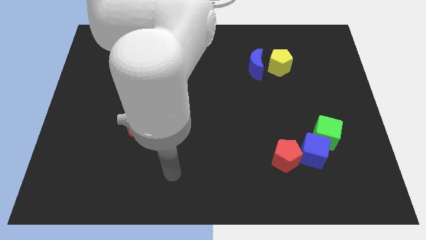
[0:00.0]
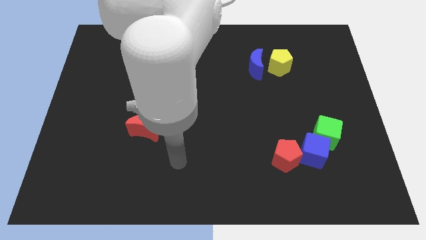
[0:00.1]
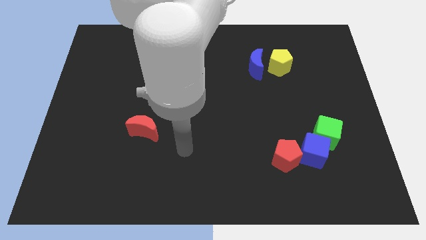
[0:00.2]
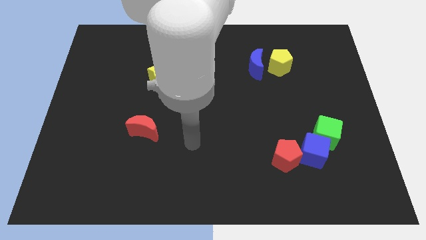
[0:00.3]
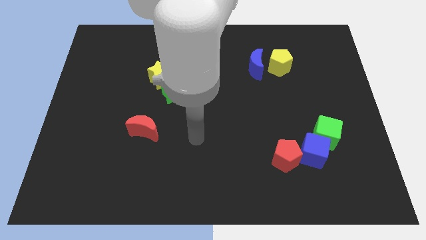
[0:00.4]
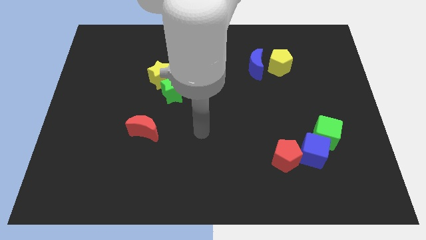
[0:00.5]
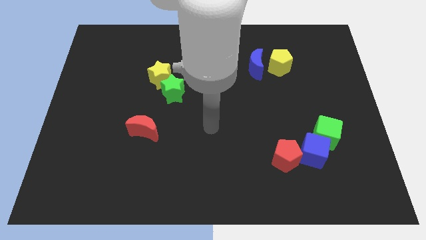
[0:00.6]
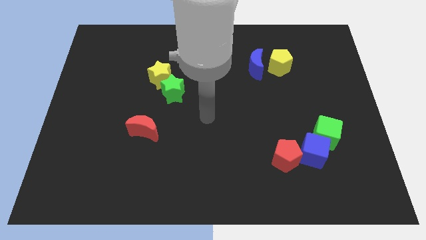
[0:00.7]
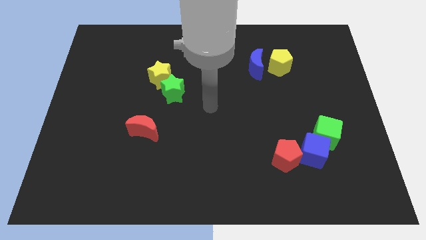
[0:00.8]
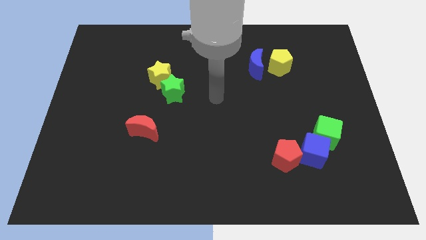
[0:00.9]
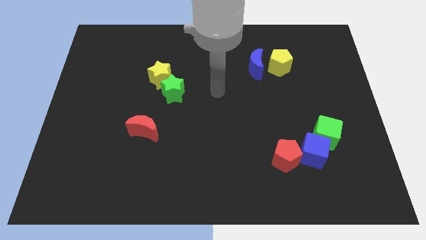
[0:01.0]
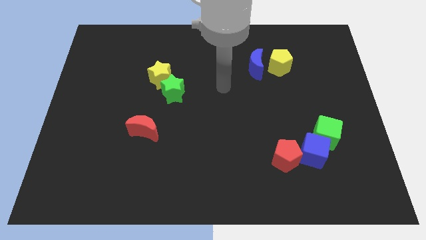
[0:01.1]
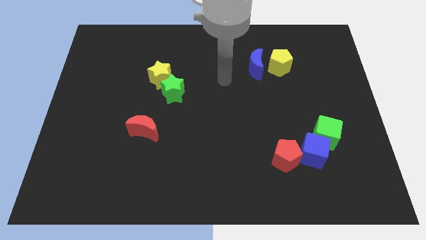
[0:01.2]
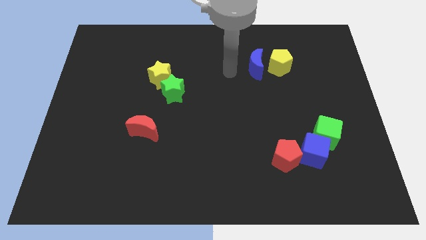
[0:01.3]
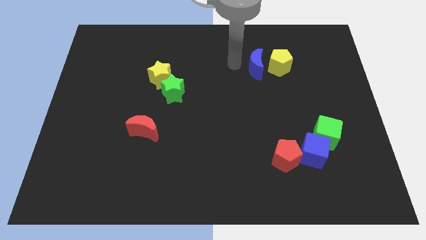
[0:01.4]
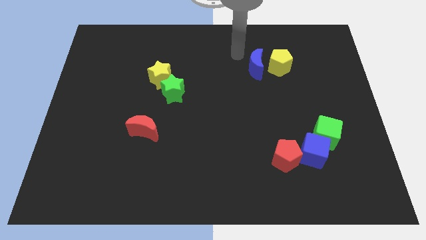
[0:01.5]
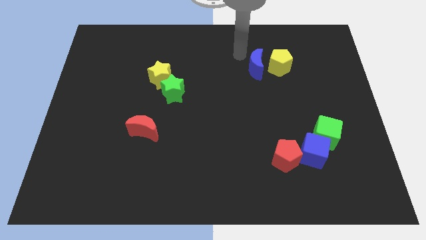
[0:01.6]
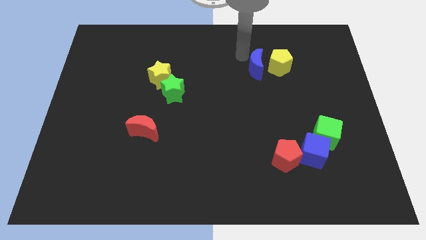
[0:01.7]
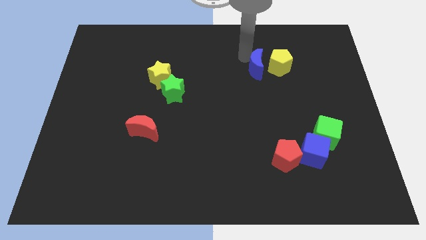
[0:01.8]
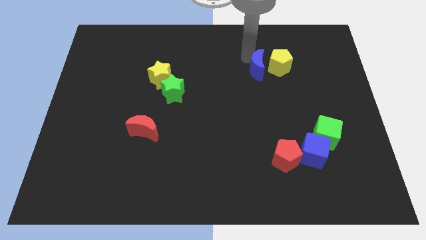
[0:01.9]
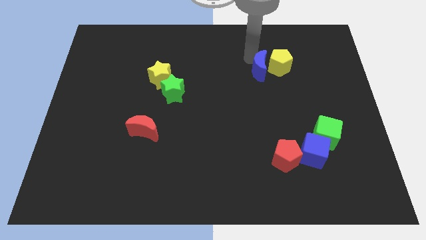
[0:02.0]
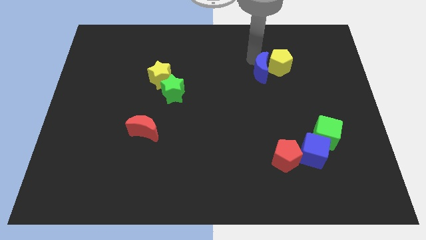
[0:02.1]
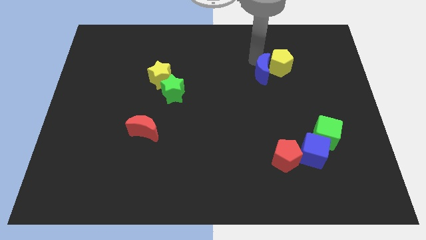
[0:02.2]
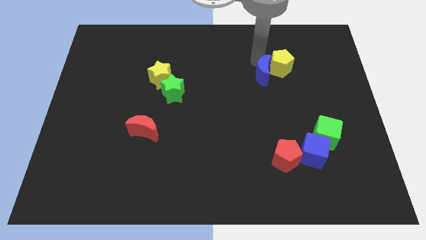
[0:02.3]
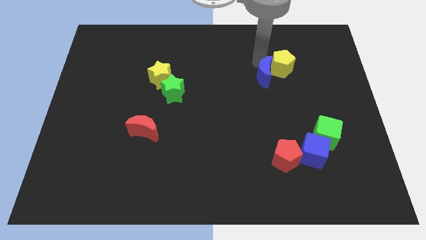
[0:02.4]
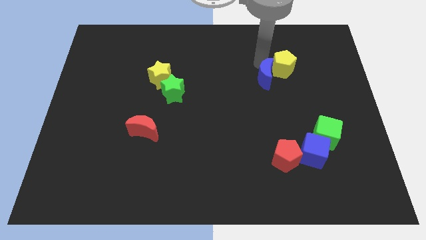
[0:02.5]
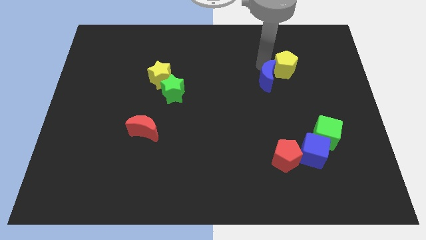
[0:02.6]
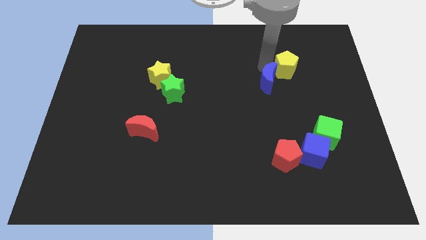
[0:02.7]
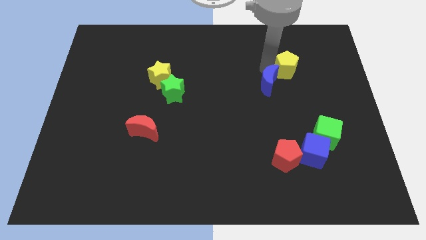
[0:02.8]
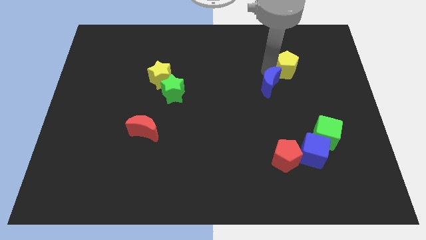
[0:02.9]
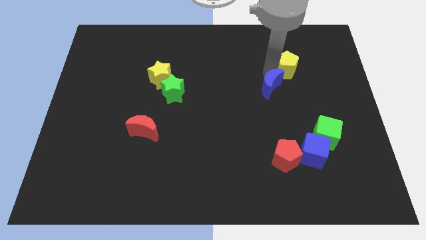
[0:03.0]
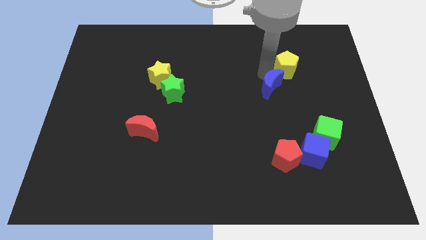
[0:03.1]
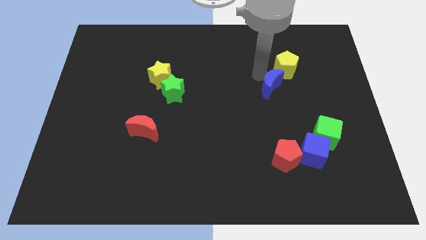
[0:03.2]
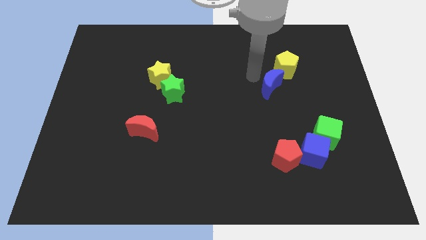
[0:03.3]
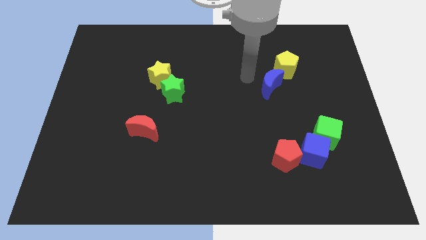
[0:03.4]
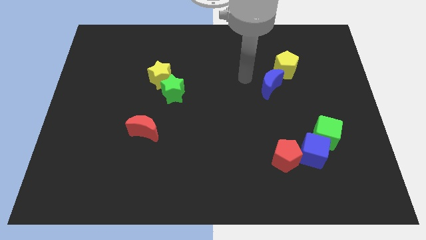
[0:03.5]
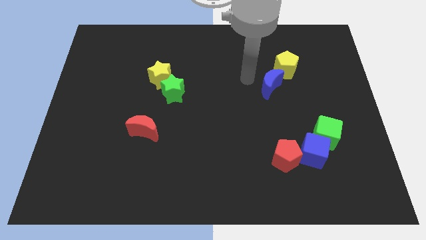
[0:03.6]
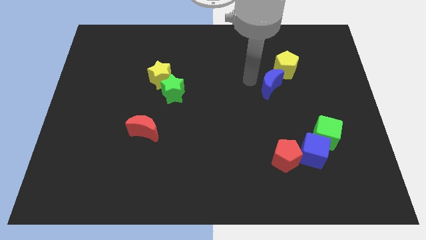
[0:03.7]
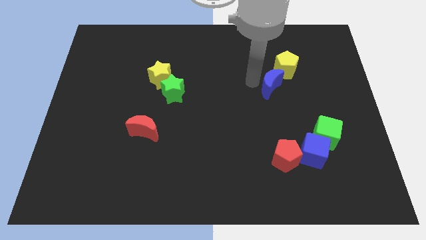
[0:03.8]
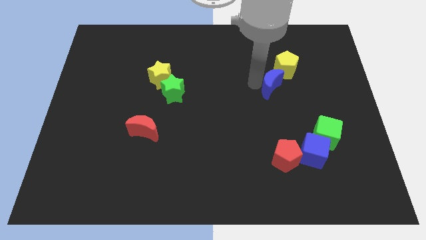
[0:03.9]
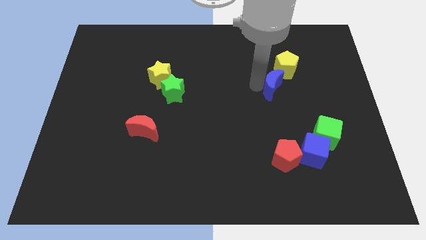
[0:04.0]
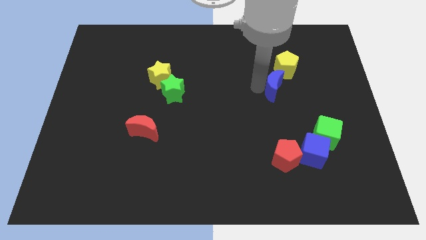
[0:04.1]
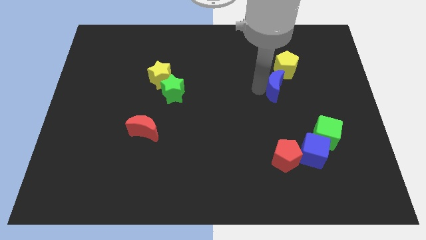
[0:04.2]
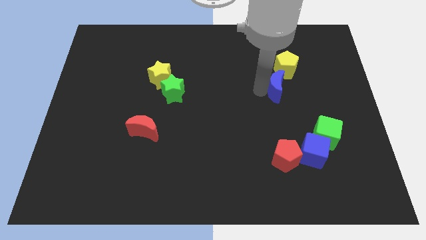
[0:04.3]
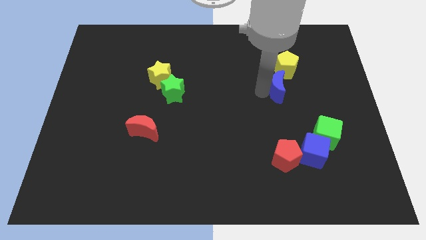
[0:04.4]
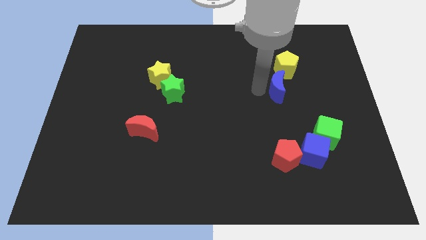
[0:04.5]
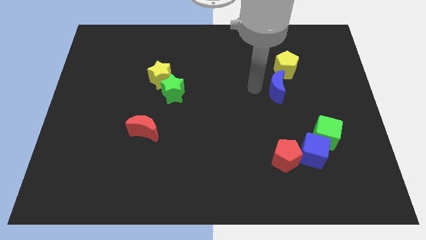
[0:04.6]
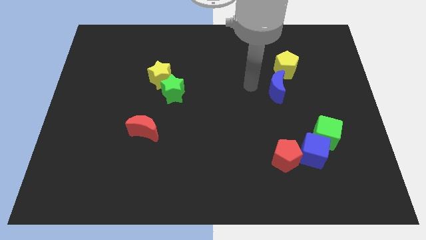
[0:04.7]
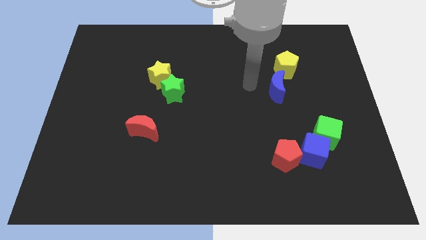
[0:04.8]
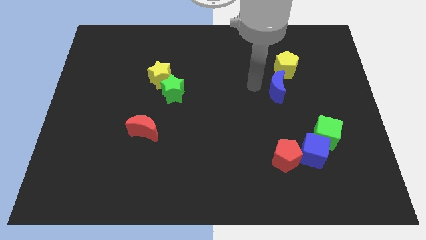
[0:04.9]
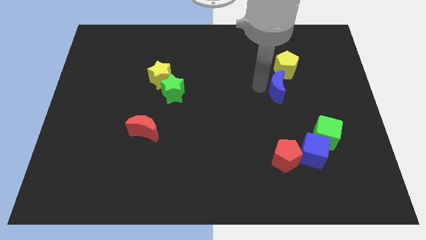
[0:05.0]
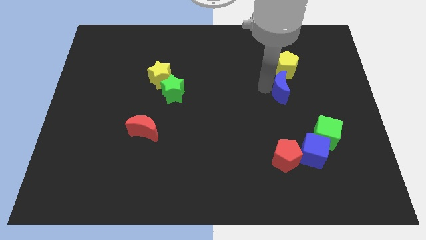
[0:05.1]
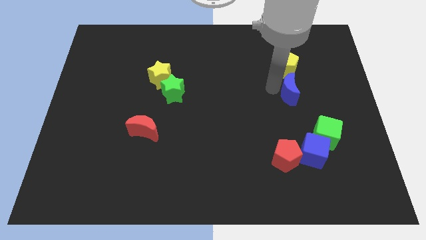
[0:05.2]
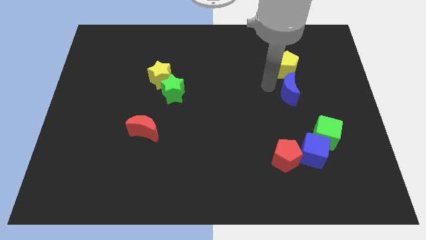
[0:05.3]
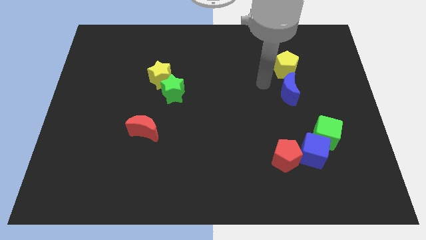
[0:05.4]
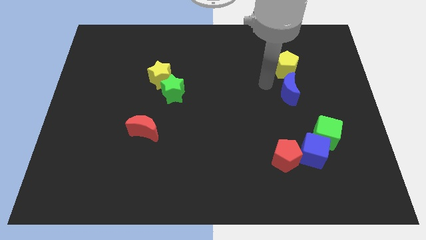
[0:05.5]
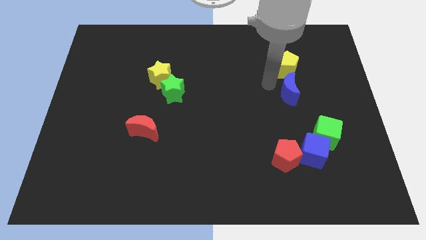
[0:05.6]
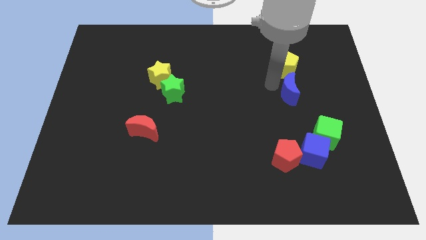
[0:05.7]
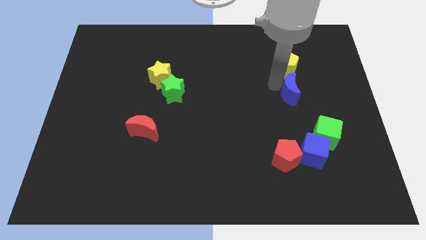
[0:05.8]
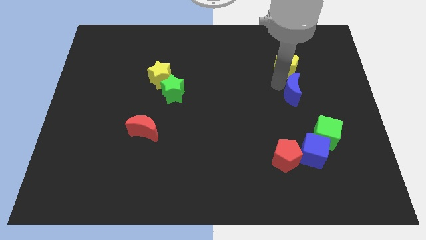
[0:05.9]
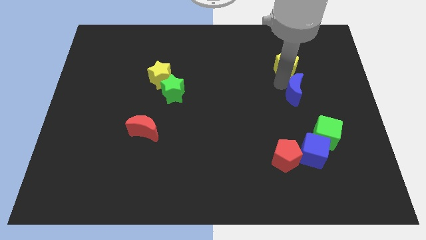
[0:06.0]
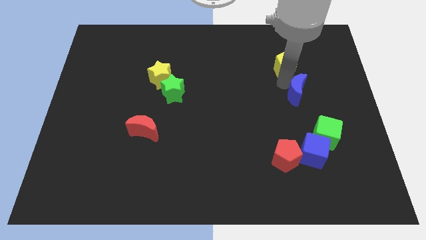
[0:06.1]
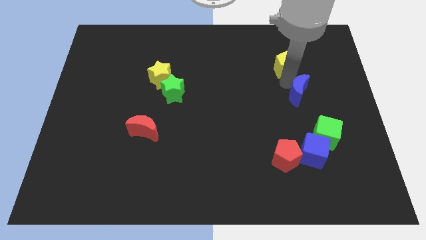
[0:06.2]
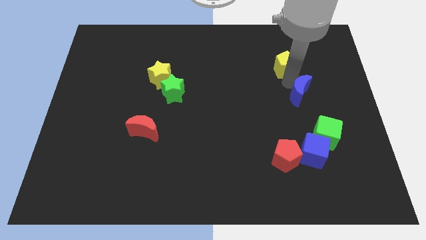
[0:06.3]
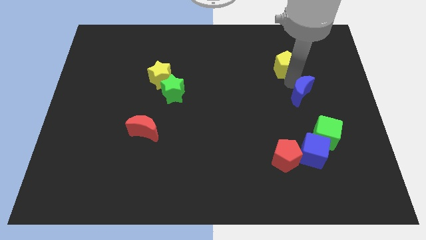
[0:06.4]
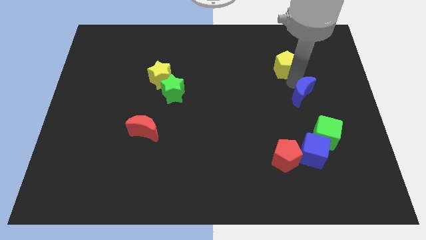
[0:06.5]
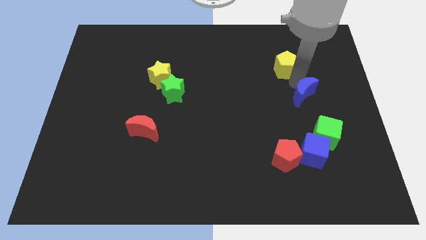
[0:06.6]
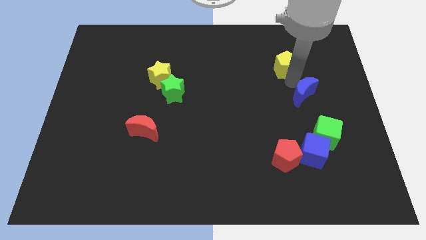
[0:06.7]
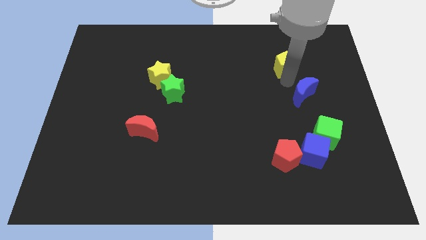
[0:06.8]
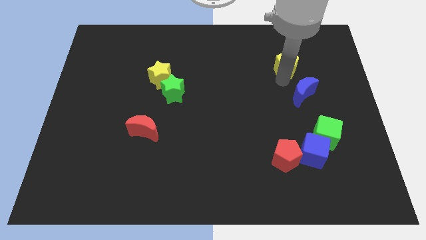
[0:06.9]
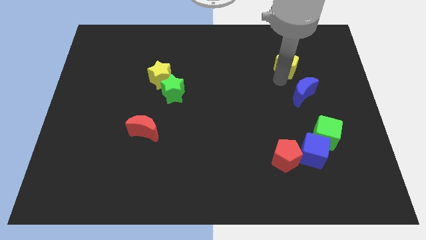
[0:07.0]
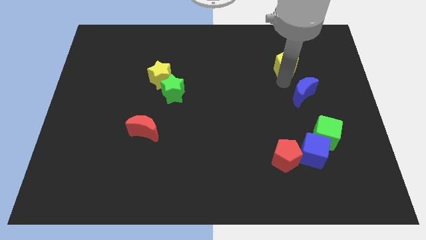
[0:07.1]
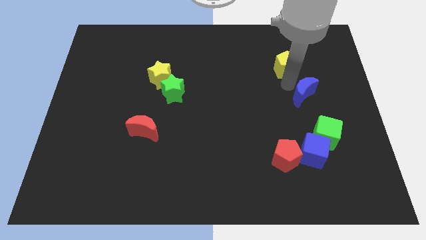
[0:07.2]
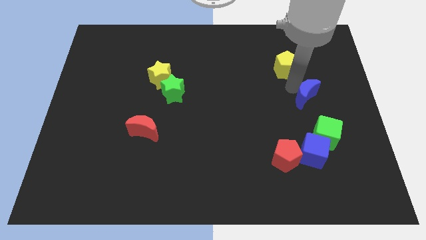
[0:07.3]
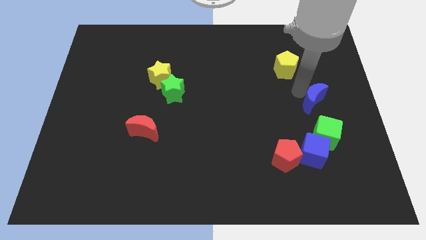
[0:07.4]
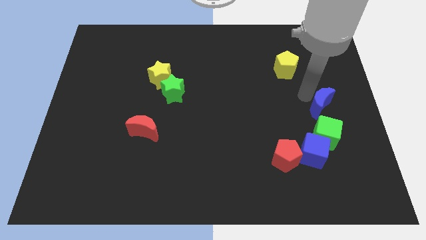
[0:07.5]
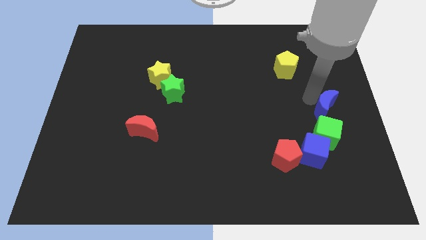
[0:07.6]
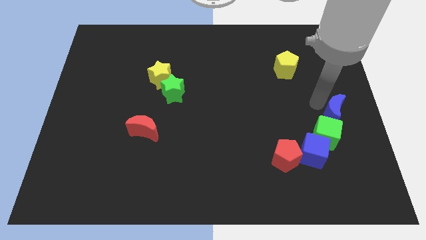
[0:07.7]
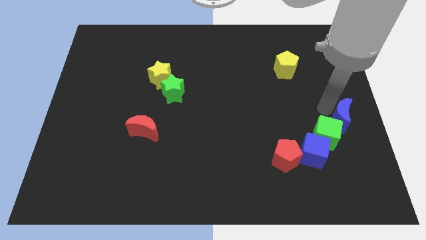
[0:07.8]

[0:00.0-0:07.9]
slide the blue moon to the top right side of the blue cube
